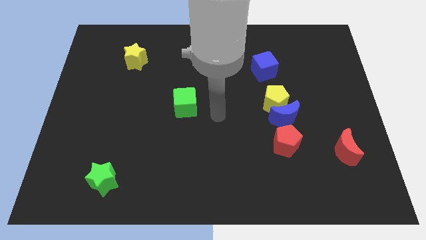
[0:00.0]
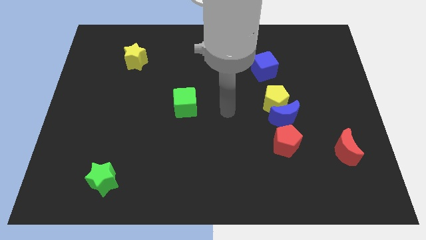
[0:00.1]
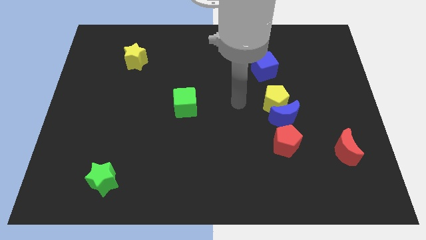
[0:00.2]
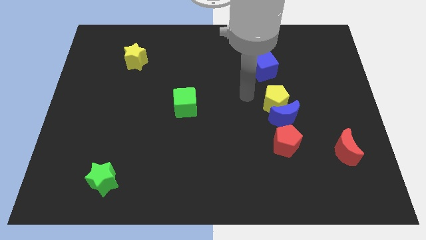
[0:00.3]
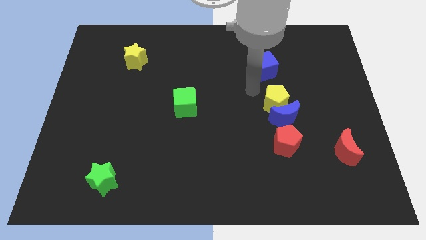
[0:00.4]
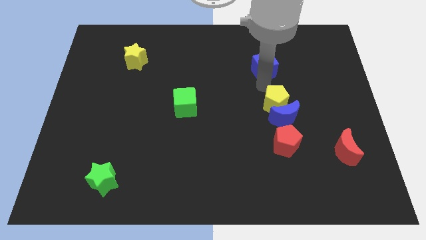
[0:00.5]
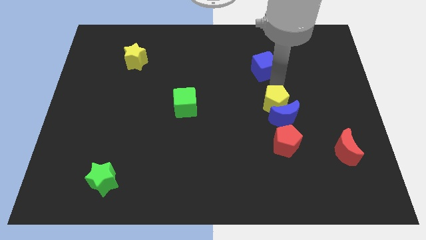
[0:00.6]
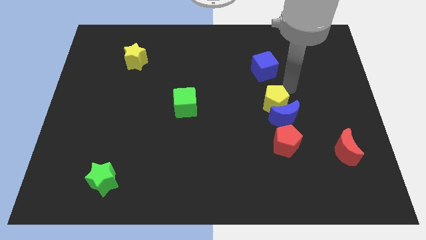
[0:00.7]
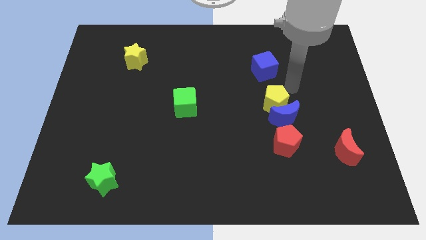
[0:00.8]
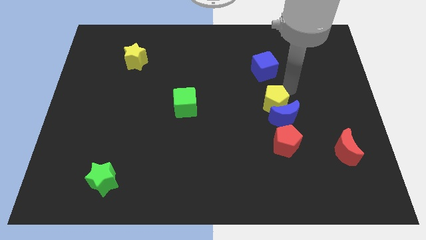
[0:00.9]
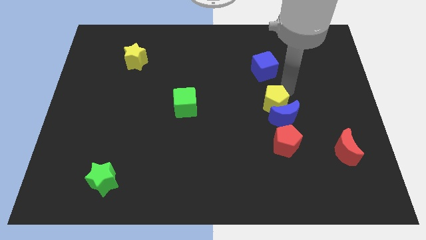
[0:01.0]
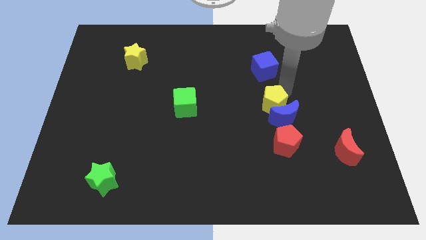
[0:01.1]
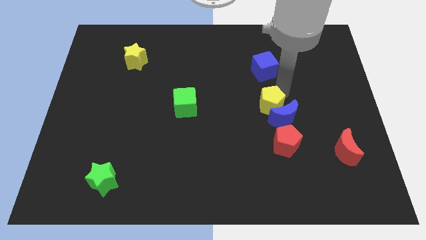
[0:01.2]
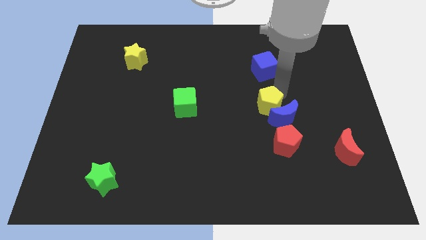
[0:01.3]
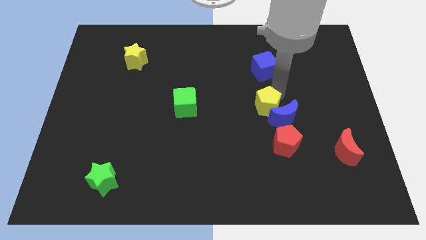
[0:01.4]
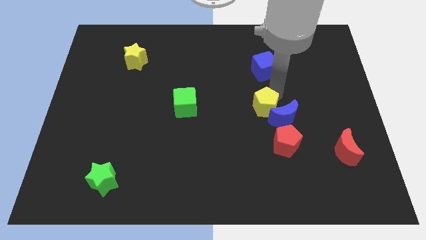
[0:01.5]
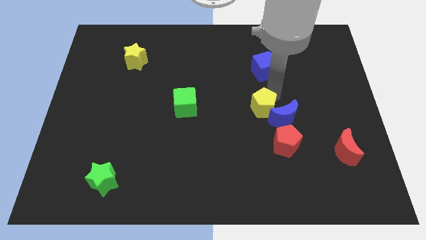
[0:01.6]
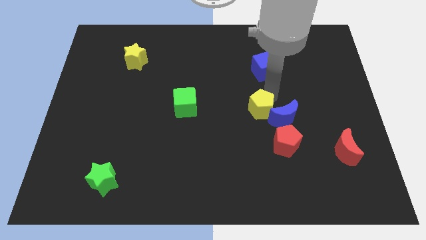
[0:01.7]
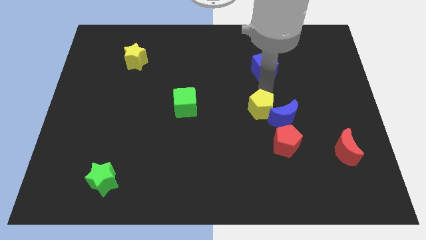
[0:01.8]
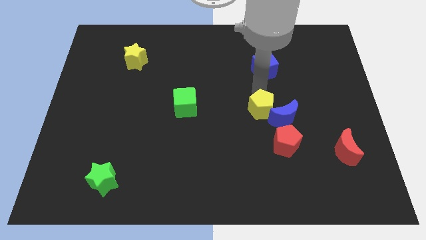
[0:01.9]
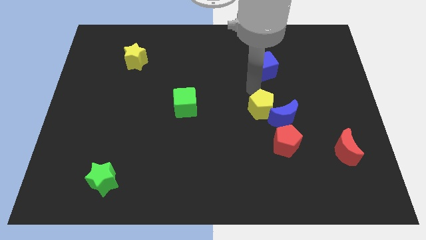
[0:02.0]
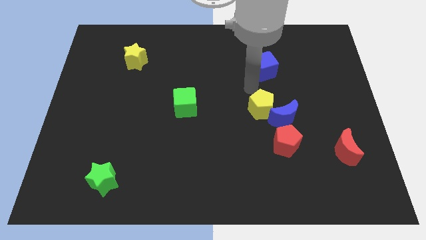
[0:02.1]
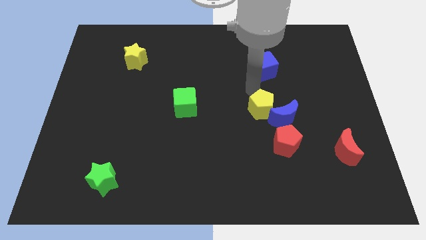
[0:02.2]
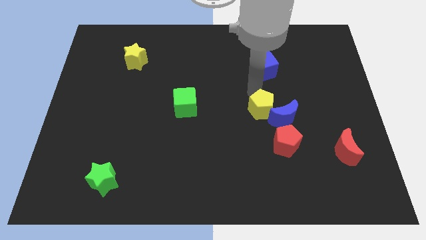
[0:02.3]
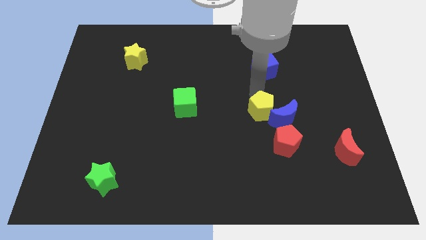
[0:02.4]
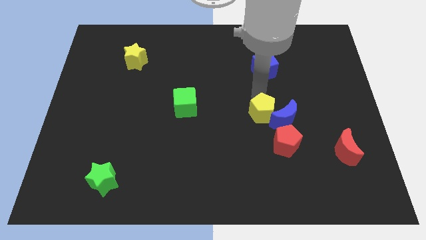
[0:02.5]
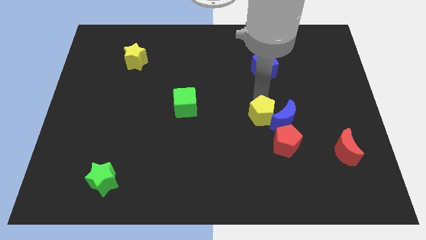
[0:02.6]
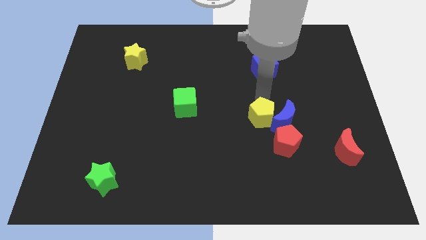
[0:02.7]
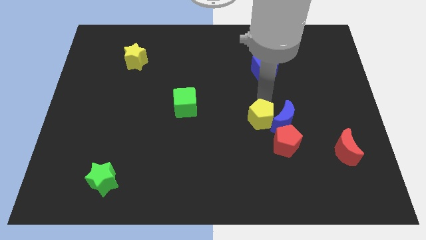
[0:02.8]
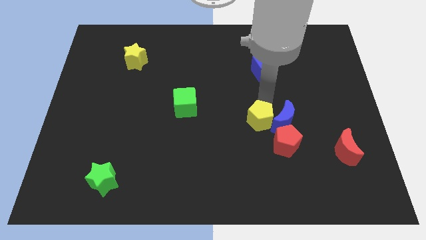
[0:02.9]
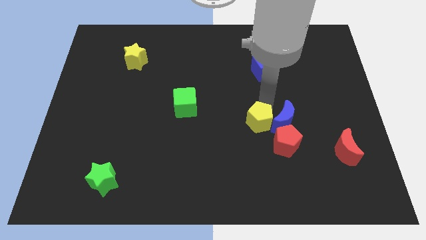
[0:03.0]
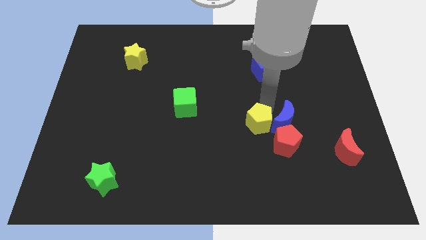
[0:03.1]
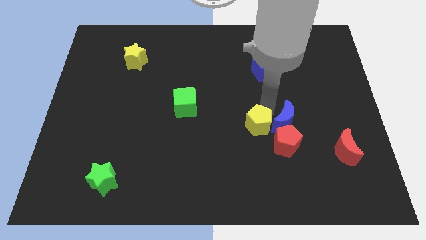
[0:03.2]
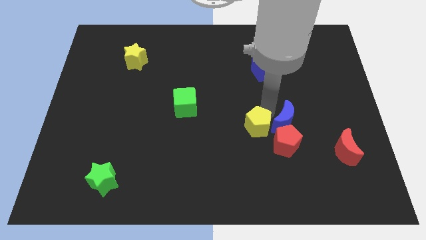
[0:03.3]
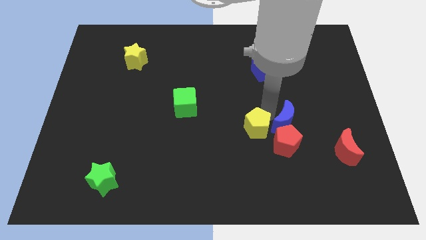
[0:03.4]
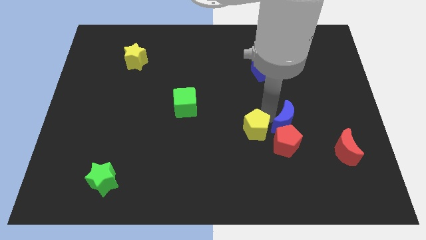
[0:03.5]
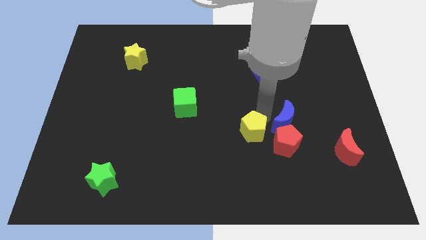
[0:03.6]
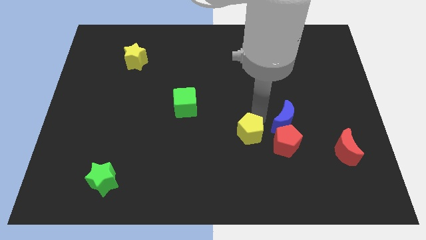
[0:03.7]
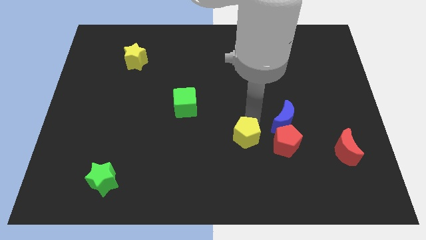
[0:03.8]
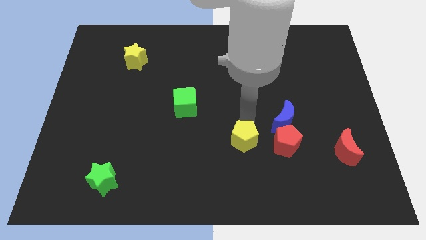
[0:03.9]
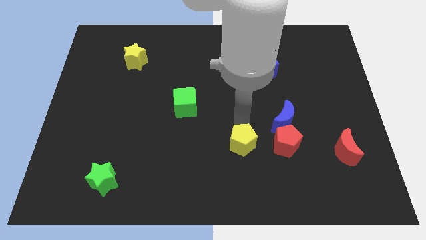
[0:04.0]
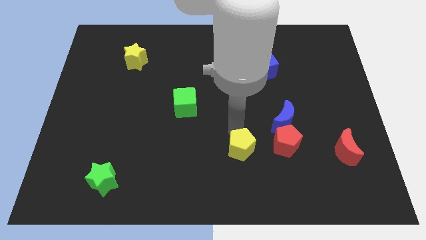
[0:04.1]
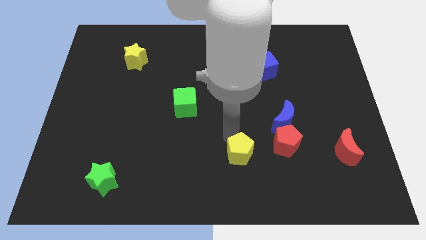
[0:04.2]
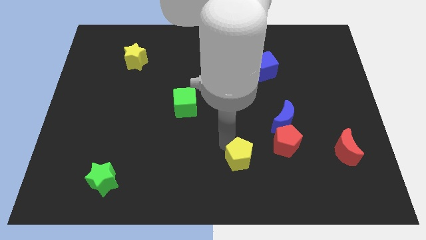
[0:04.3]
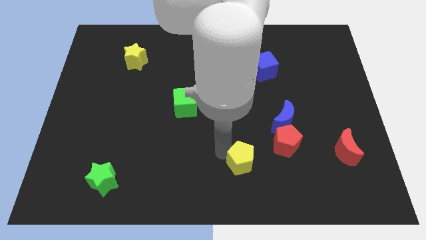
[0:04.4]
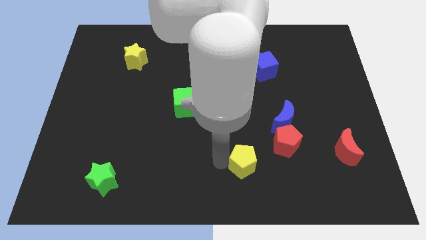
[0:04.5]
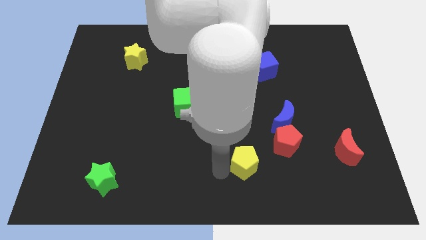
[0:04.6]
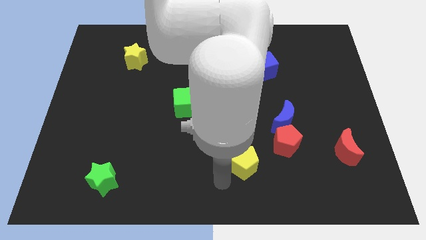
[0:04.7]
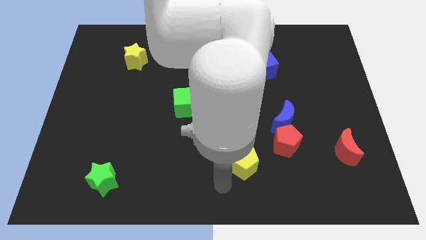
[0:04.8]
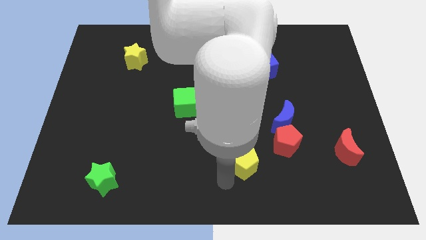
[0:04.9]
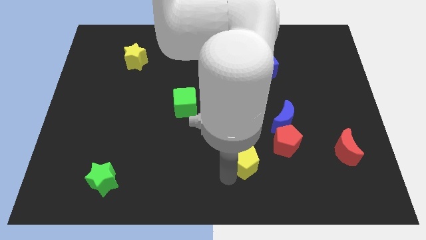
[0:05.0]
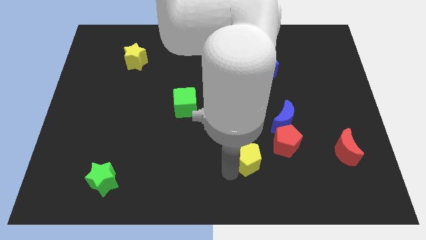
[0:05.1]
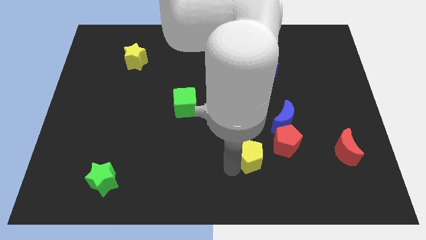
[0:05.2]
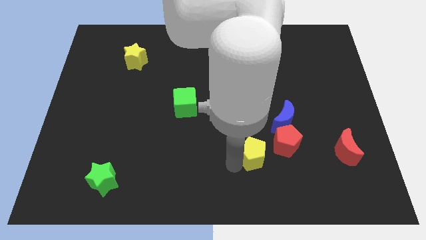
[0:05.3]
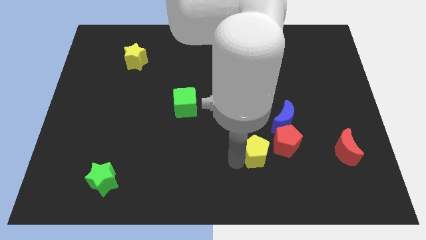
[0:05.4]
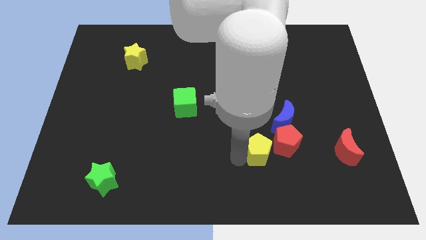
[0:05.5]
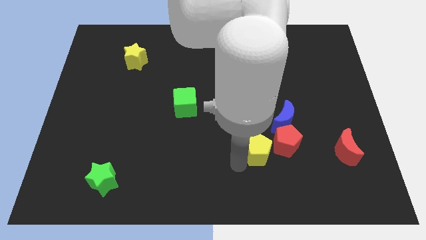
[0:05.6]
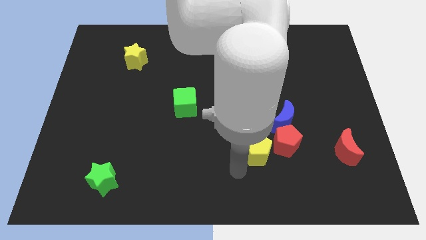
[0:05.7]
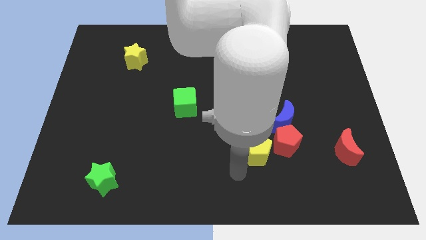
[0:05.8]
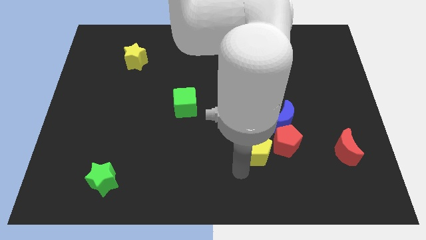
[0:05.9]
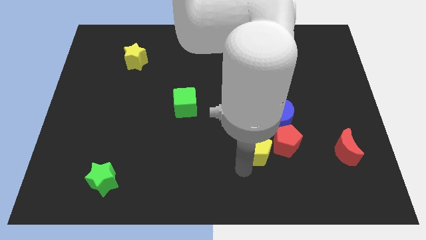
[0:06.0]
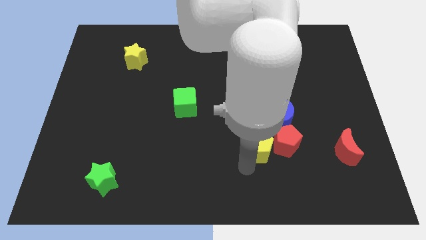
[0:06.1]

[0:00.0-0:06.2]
push the yellow pentagon next to the red pentagon

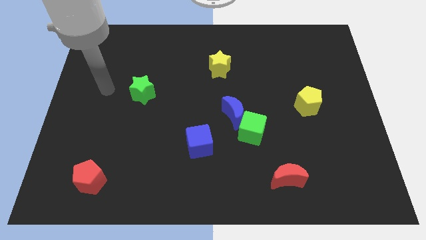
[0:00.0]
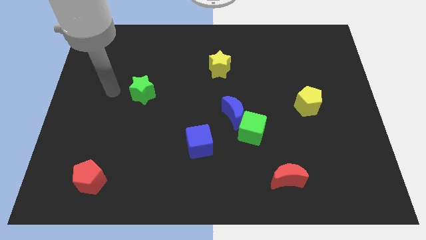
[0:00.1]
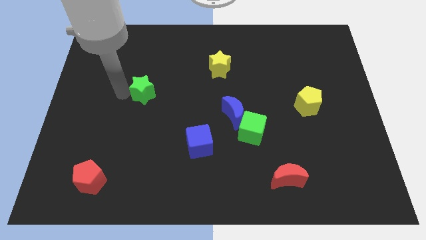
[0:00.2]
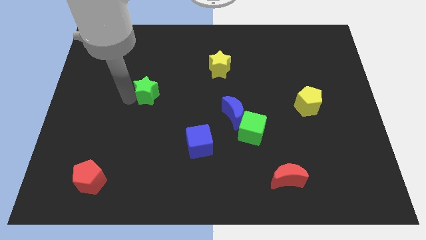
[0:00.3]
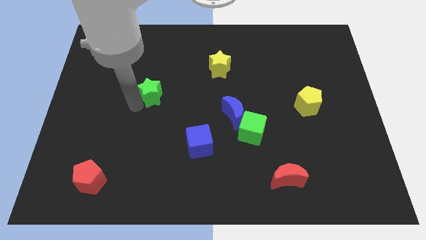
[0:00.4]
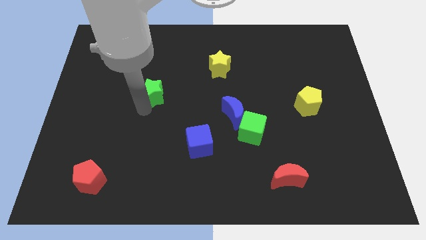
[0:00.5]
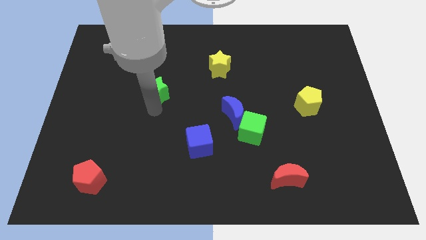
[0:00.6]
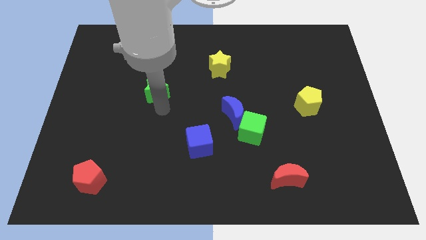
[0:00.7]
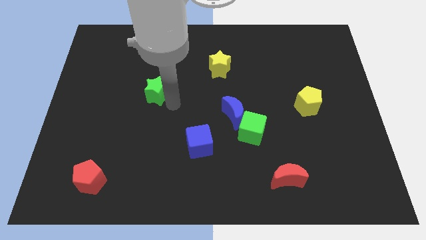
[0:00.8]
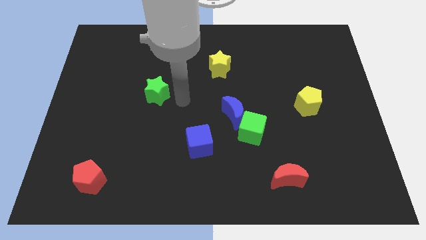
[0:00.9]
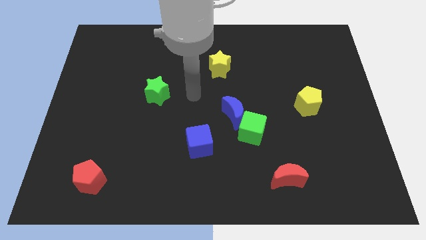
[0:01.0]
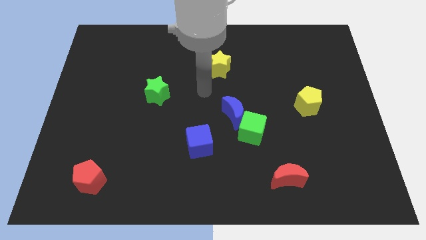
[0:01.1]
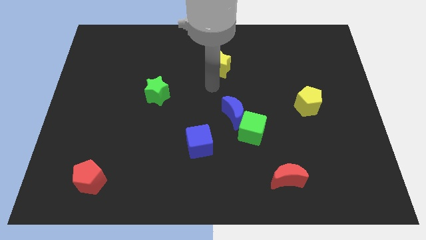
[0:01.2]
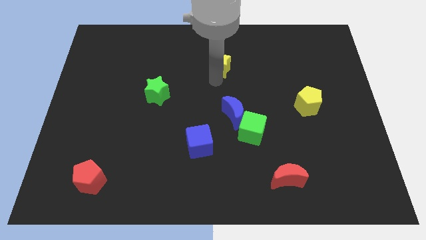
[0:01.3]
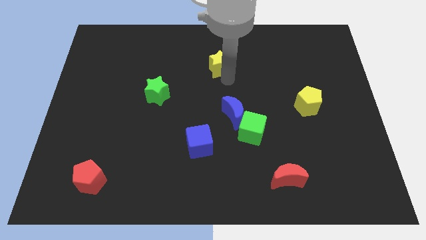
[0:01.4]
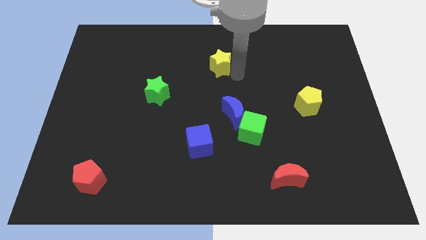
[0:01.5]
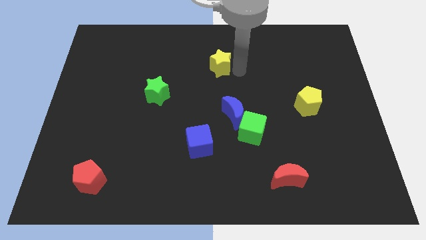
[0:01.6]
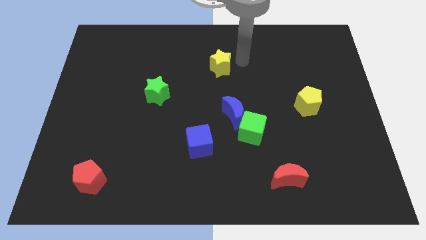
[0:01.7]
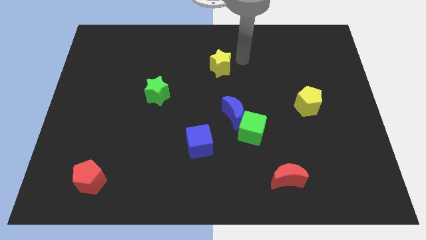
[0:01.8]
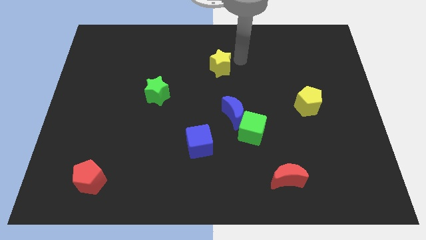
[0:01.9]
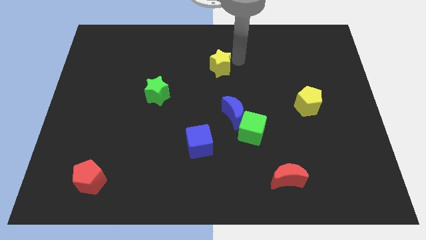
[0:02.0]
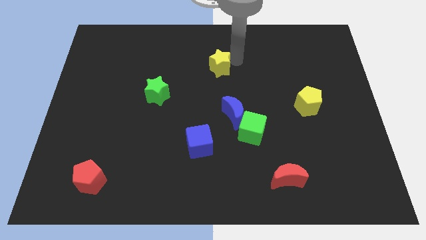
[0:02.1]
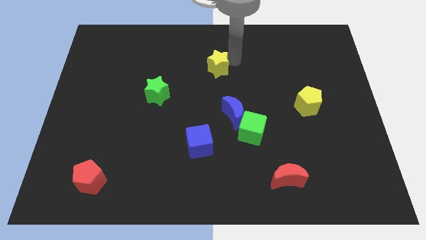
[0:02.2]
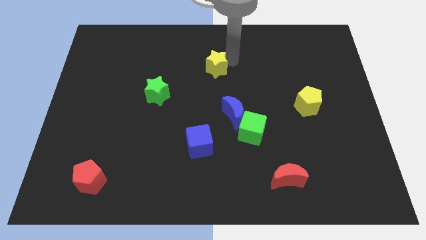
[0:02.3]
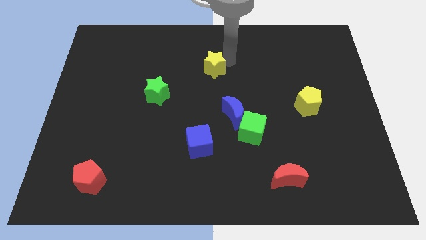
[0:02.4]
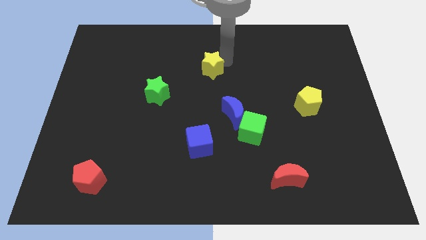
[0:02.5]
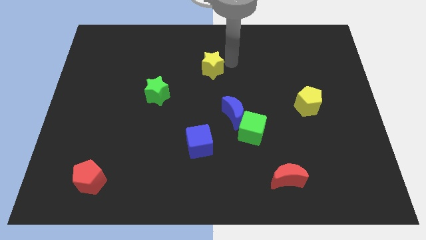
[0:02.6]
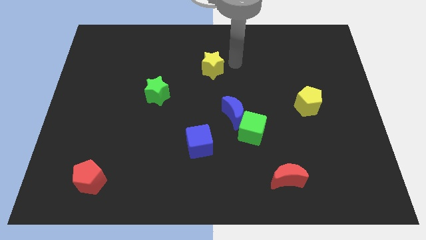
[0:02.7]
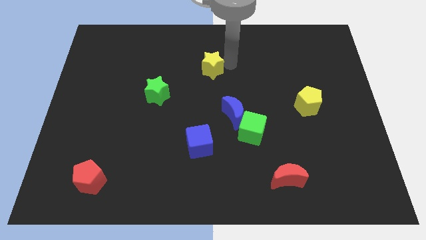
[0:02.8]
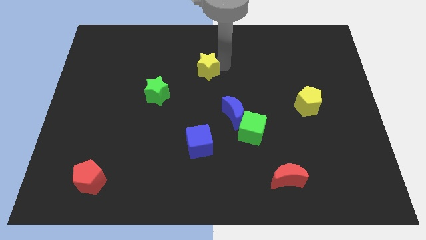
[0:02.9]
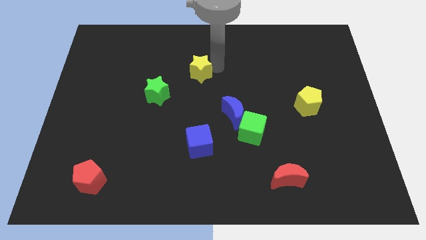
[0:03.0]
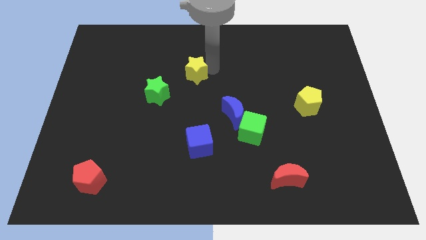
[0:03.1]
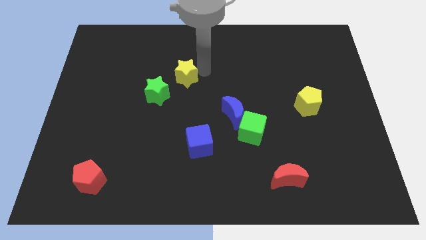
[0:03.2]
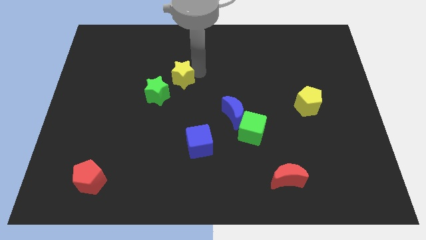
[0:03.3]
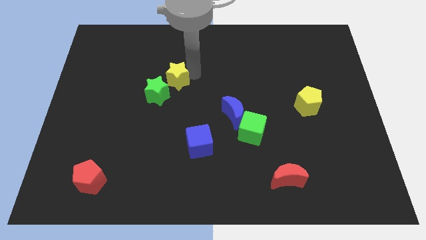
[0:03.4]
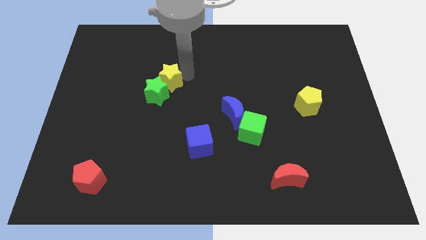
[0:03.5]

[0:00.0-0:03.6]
move the yellow star close to the green star
